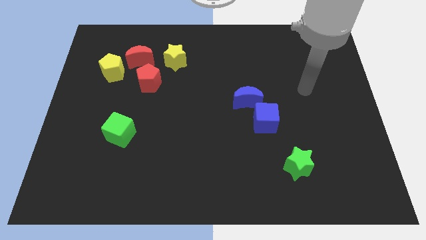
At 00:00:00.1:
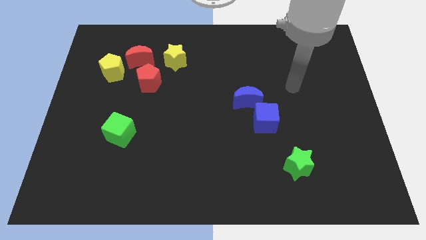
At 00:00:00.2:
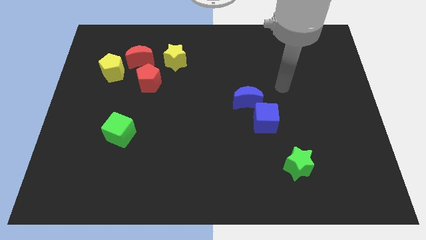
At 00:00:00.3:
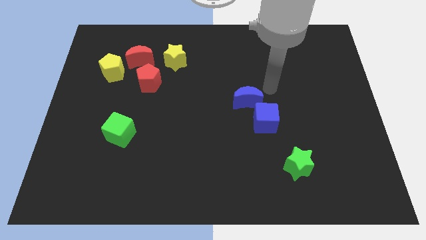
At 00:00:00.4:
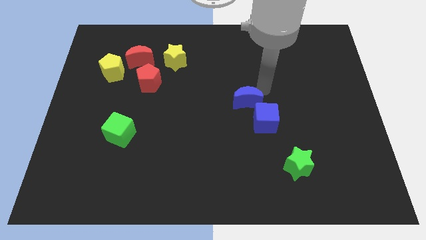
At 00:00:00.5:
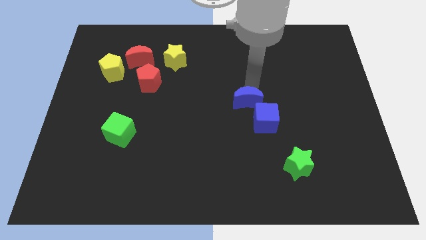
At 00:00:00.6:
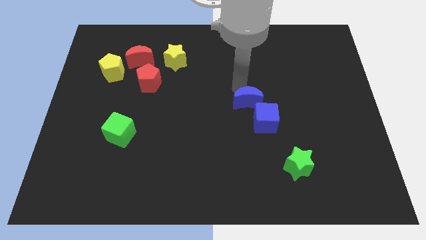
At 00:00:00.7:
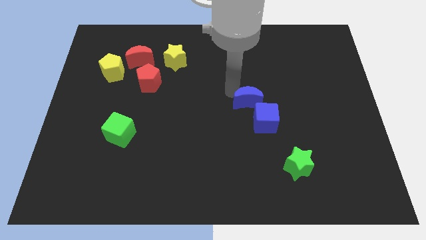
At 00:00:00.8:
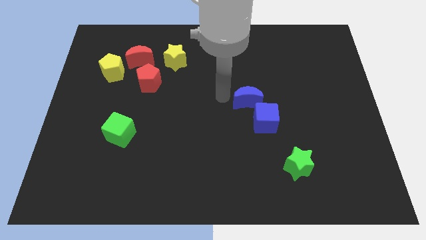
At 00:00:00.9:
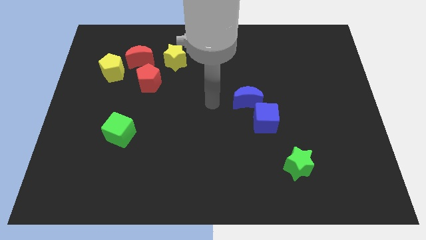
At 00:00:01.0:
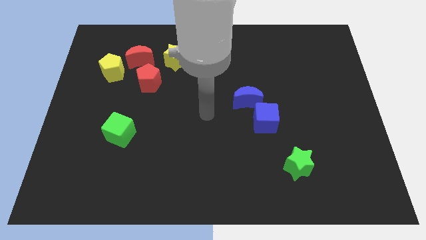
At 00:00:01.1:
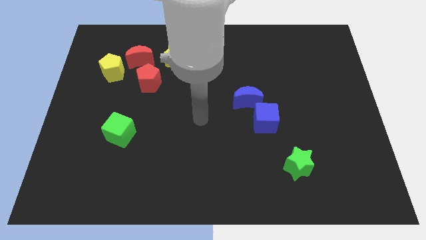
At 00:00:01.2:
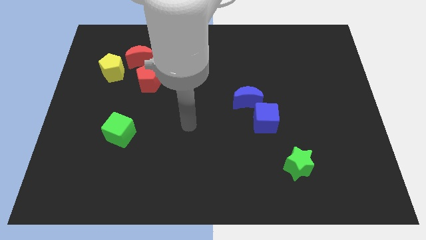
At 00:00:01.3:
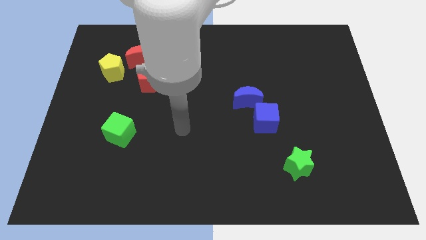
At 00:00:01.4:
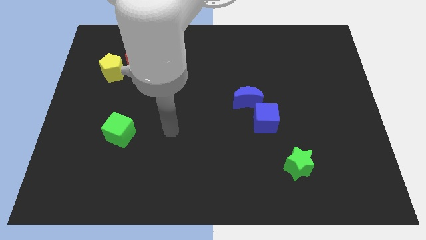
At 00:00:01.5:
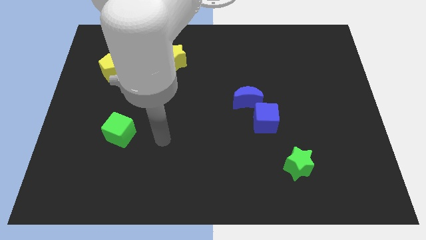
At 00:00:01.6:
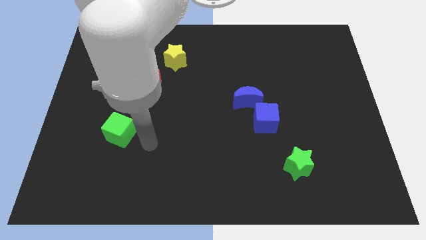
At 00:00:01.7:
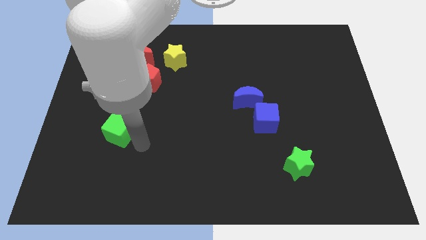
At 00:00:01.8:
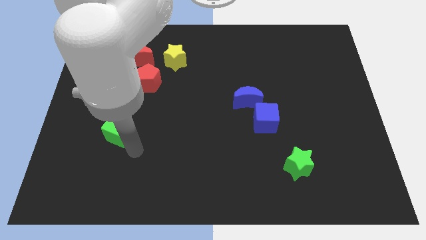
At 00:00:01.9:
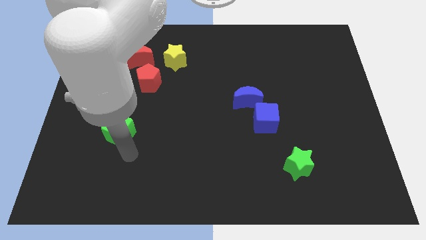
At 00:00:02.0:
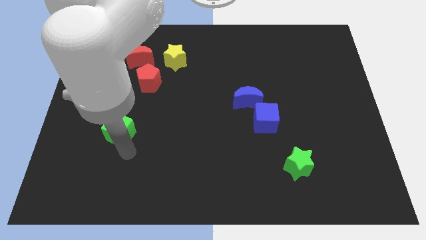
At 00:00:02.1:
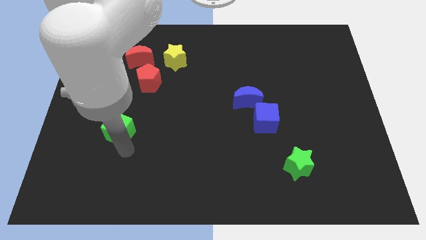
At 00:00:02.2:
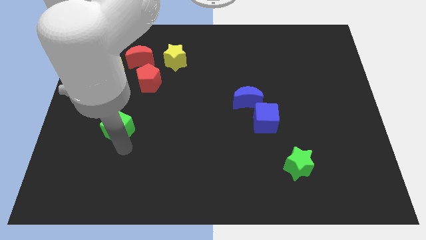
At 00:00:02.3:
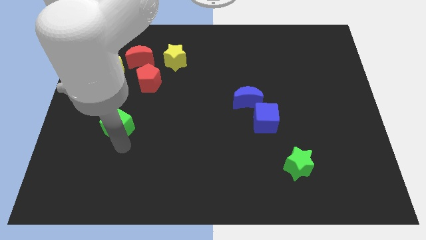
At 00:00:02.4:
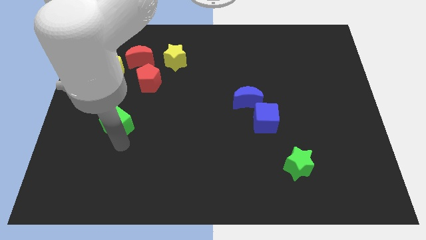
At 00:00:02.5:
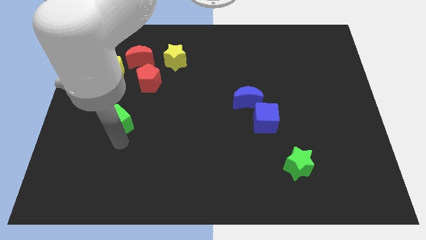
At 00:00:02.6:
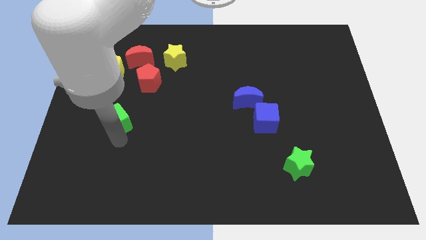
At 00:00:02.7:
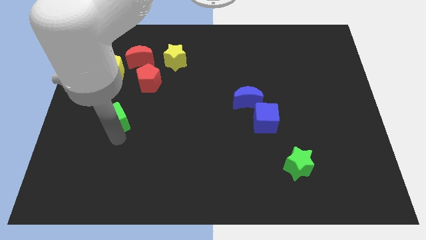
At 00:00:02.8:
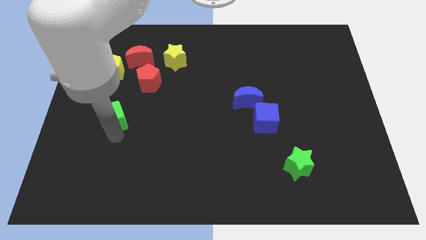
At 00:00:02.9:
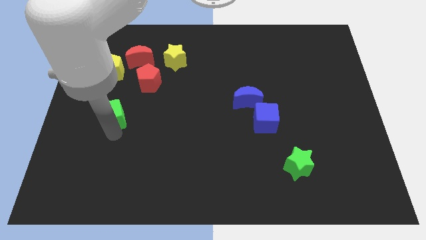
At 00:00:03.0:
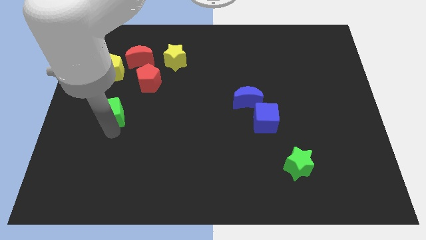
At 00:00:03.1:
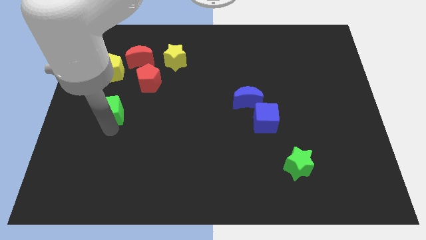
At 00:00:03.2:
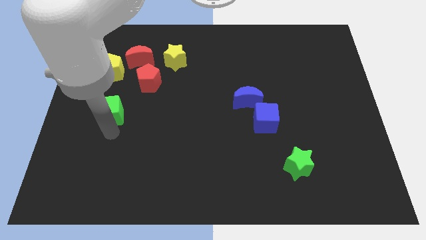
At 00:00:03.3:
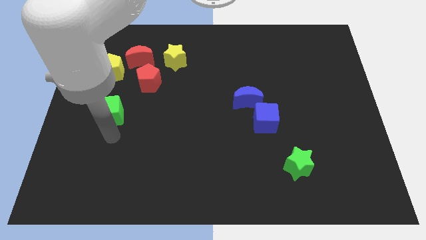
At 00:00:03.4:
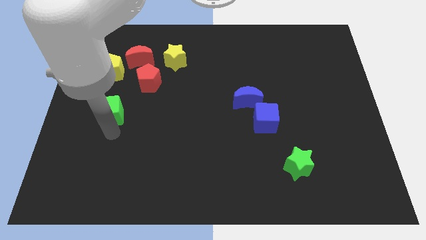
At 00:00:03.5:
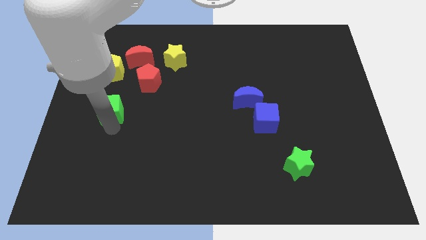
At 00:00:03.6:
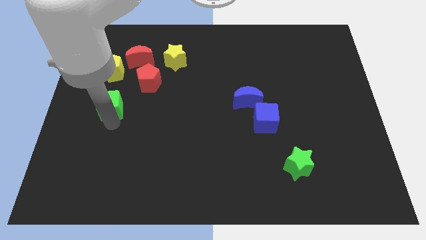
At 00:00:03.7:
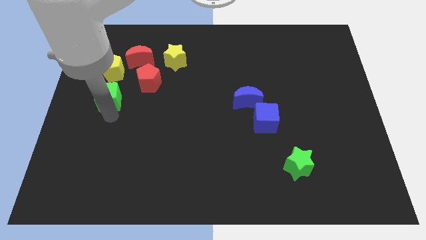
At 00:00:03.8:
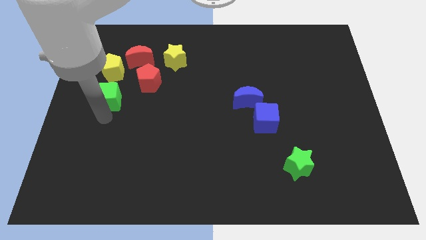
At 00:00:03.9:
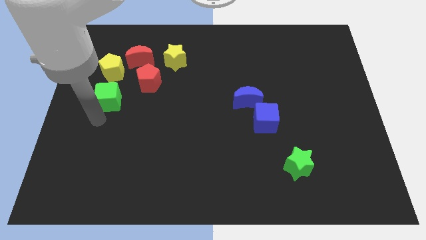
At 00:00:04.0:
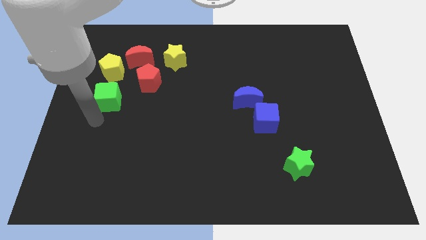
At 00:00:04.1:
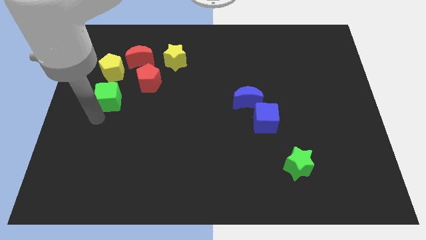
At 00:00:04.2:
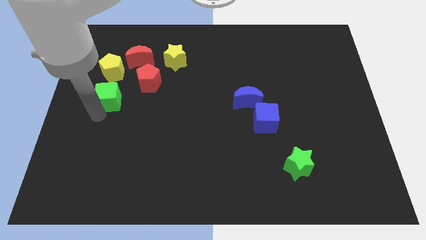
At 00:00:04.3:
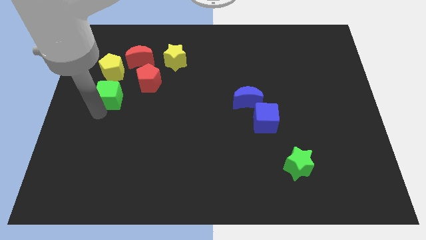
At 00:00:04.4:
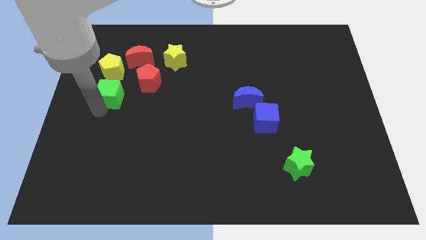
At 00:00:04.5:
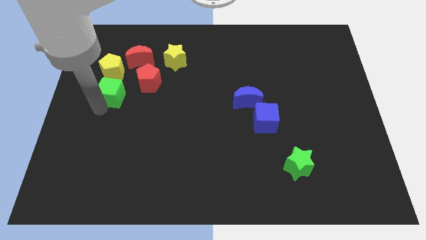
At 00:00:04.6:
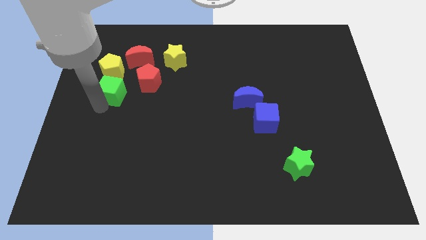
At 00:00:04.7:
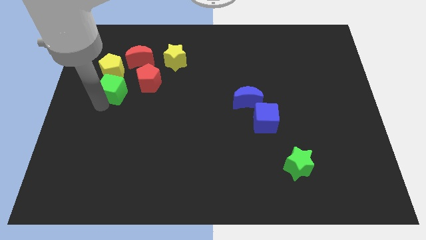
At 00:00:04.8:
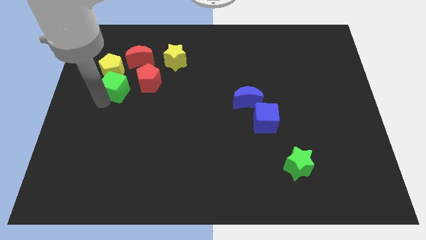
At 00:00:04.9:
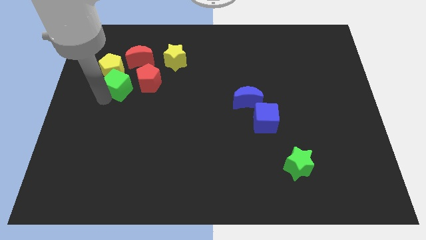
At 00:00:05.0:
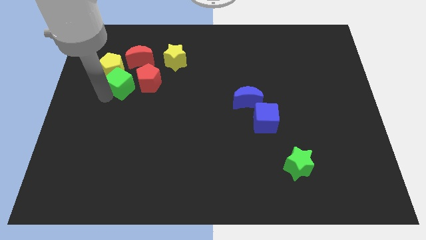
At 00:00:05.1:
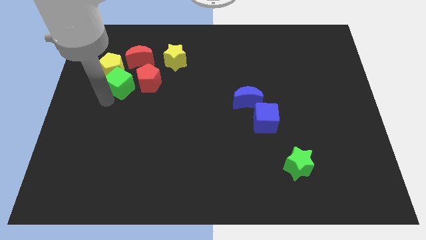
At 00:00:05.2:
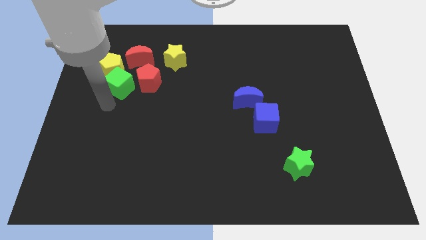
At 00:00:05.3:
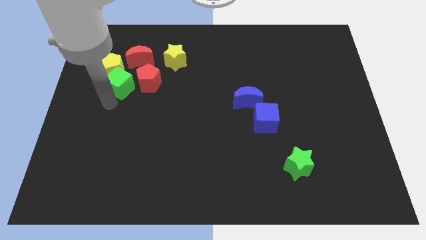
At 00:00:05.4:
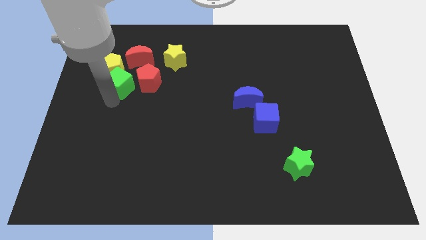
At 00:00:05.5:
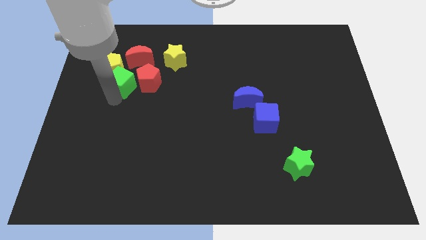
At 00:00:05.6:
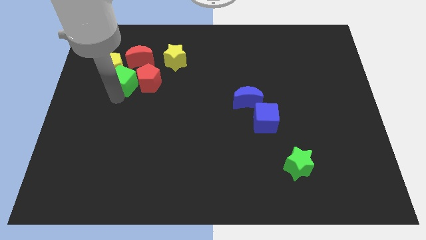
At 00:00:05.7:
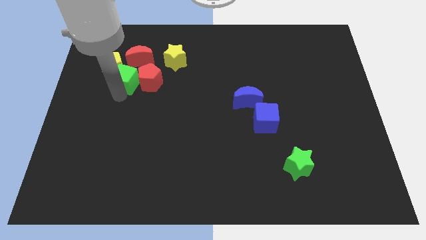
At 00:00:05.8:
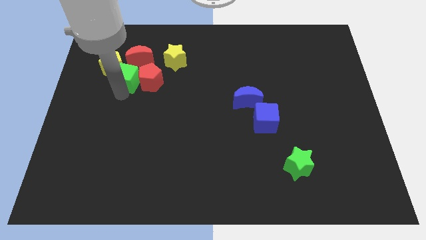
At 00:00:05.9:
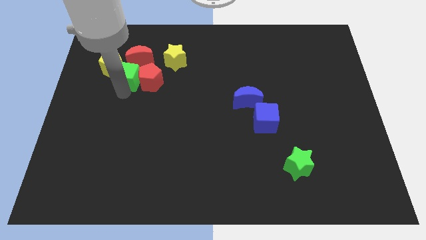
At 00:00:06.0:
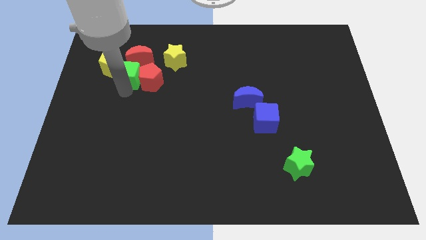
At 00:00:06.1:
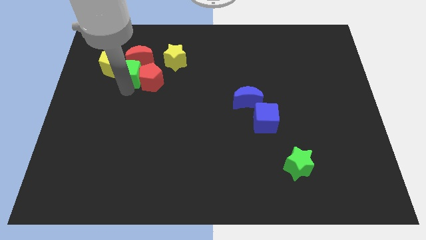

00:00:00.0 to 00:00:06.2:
slide the green cube to the red moon
